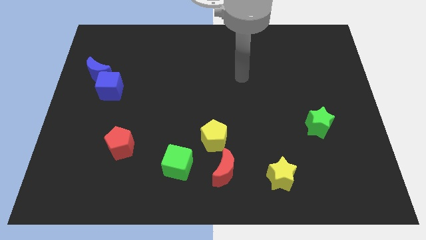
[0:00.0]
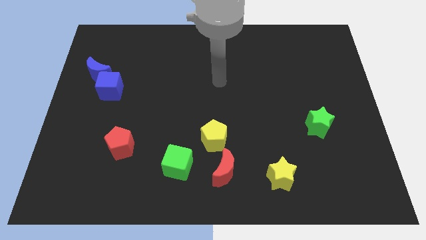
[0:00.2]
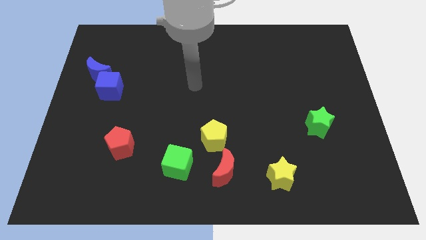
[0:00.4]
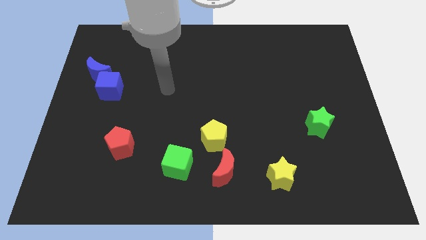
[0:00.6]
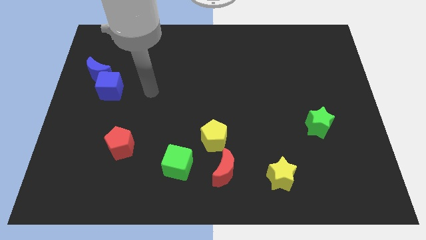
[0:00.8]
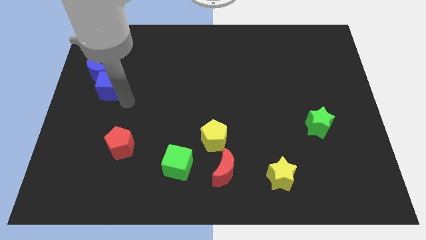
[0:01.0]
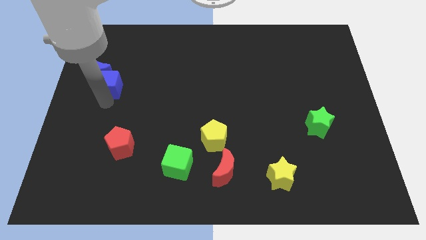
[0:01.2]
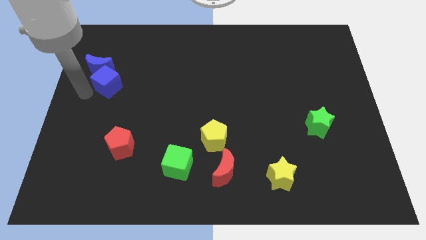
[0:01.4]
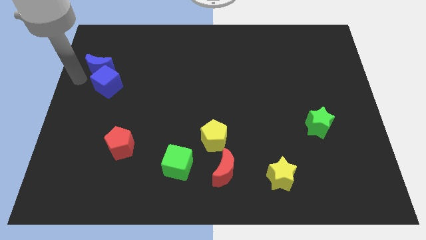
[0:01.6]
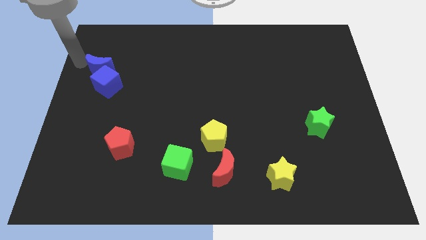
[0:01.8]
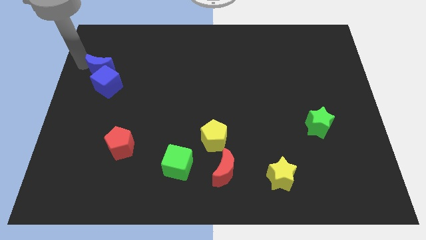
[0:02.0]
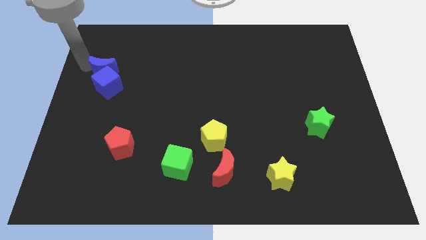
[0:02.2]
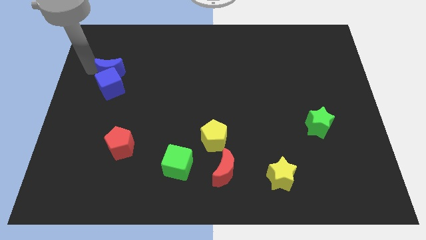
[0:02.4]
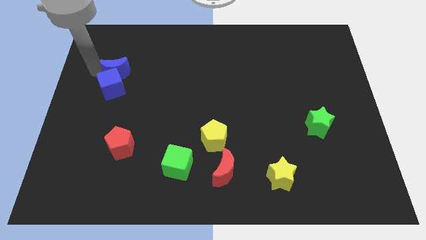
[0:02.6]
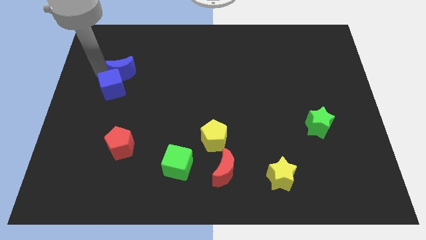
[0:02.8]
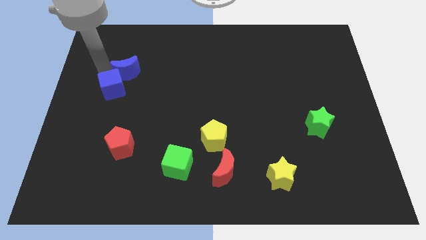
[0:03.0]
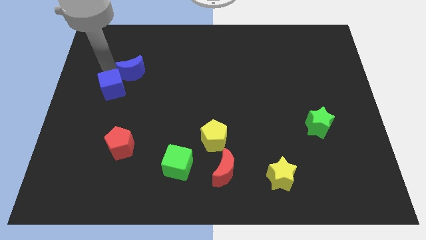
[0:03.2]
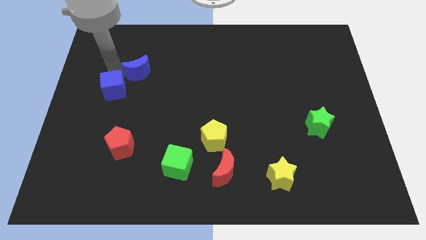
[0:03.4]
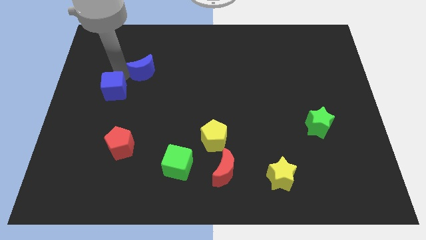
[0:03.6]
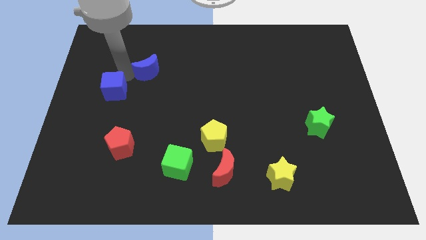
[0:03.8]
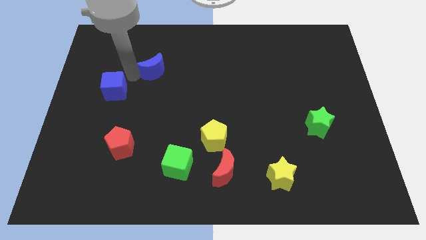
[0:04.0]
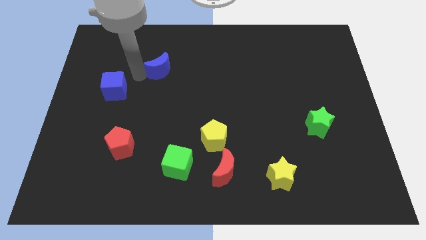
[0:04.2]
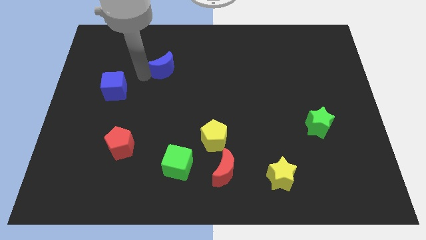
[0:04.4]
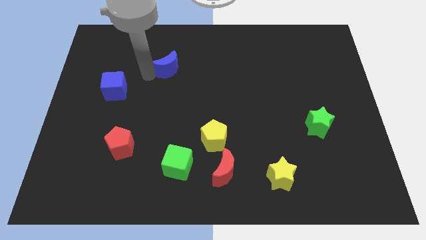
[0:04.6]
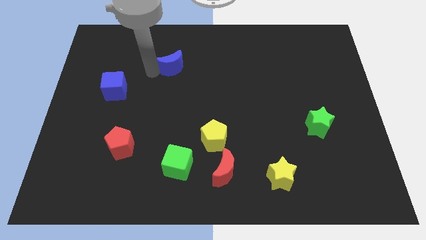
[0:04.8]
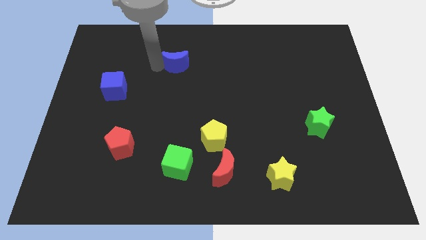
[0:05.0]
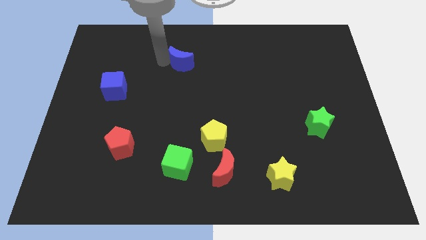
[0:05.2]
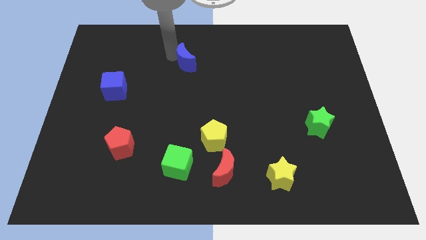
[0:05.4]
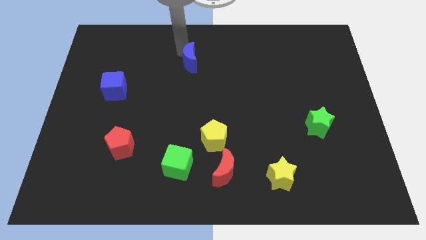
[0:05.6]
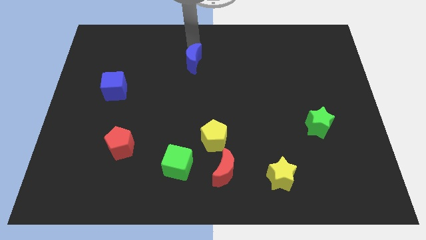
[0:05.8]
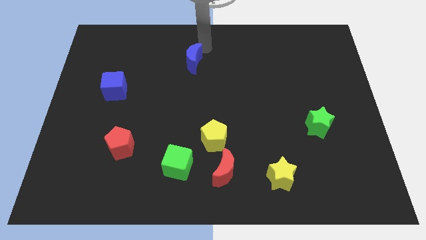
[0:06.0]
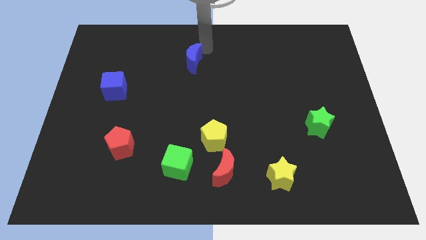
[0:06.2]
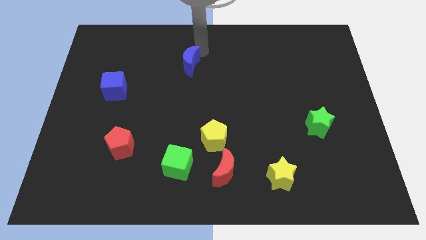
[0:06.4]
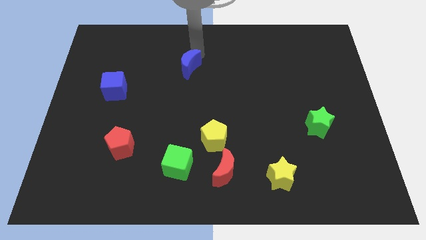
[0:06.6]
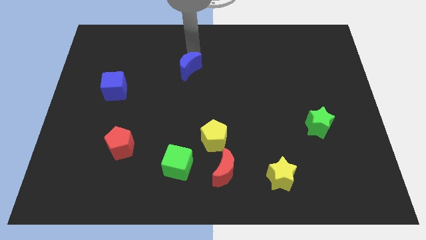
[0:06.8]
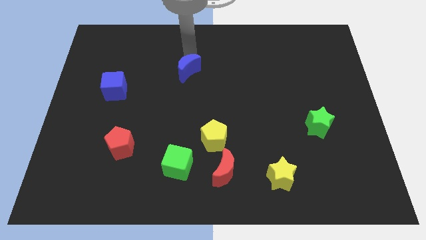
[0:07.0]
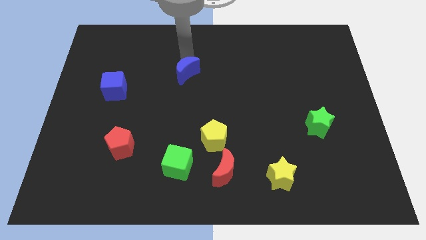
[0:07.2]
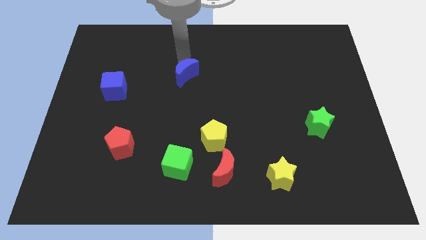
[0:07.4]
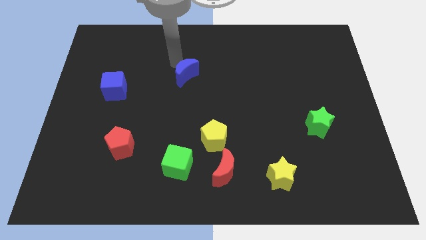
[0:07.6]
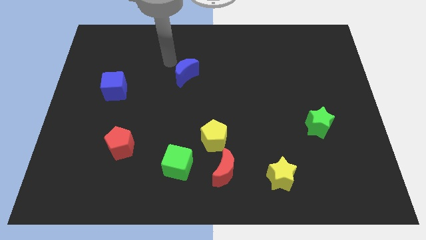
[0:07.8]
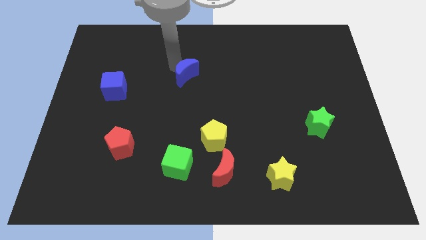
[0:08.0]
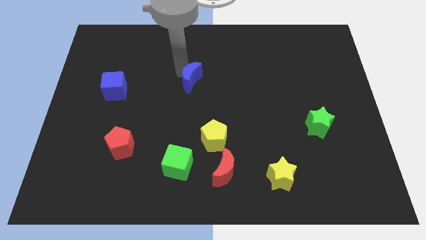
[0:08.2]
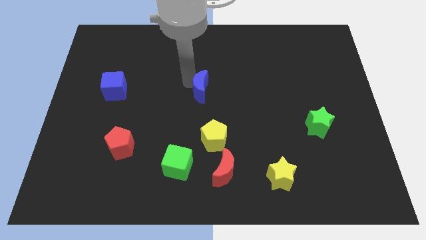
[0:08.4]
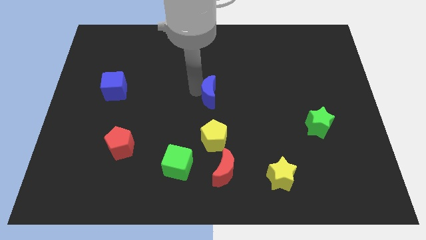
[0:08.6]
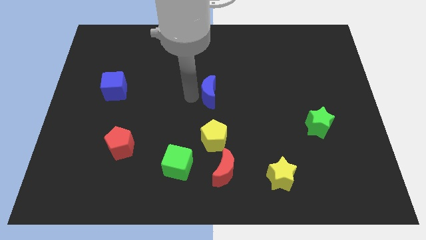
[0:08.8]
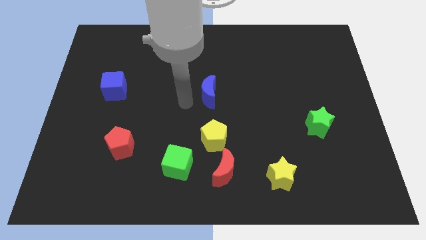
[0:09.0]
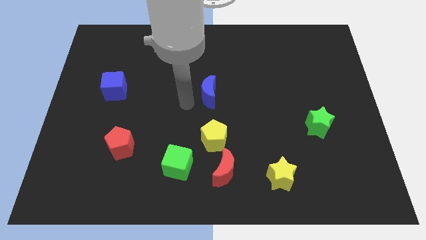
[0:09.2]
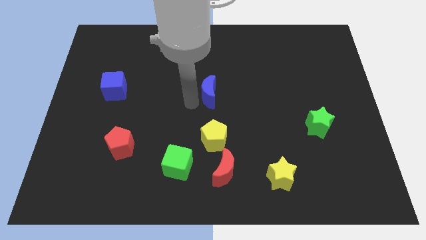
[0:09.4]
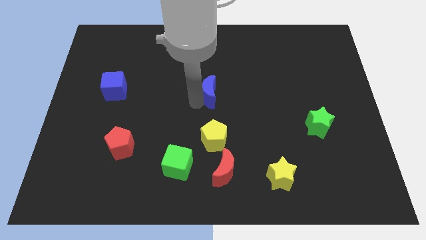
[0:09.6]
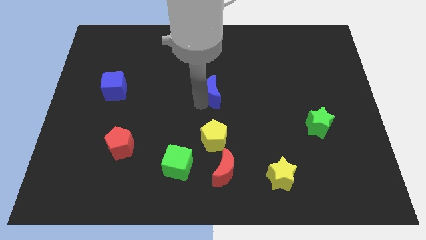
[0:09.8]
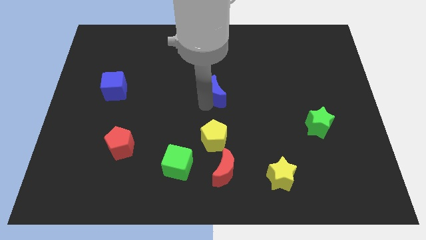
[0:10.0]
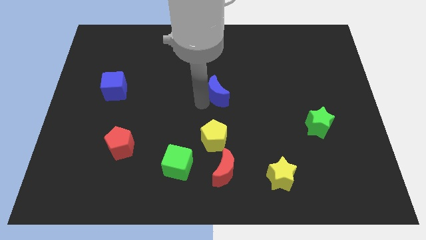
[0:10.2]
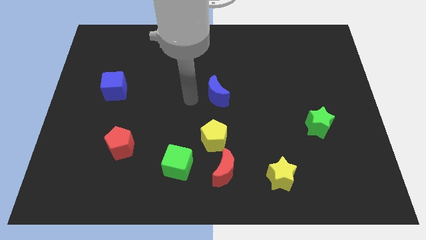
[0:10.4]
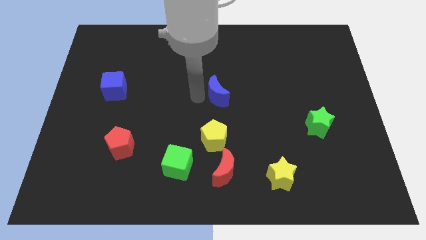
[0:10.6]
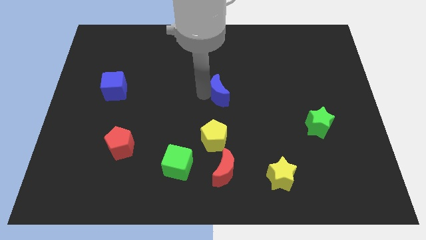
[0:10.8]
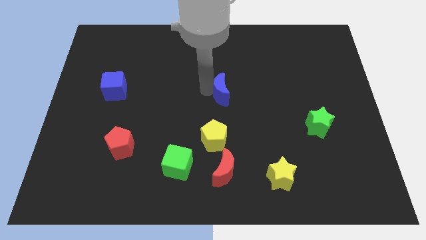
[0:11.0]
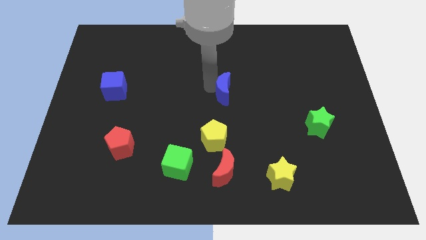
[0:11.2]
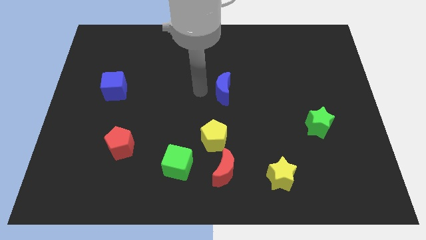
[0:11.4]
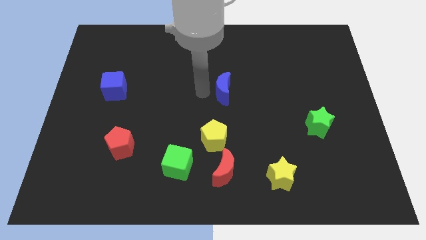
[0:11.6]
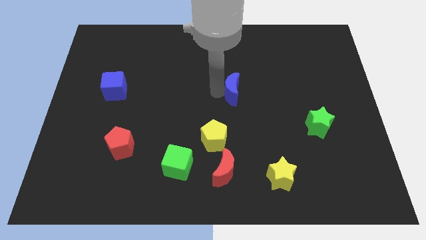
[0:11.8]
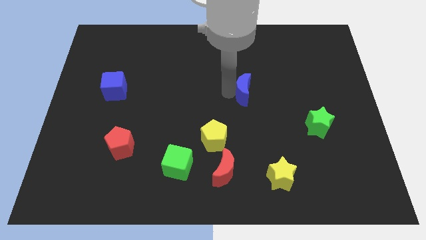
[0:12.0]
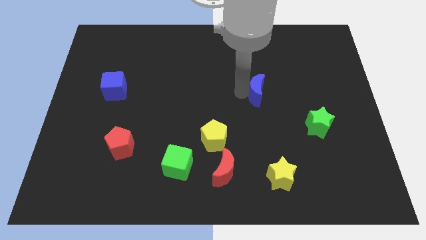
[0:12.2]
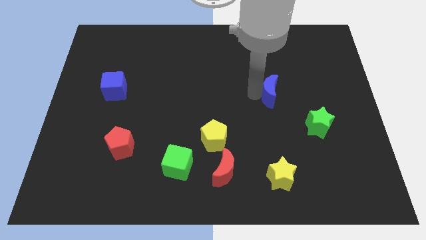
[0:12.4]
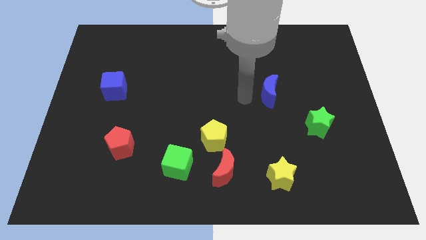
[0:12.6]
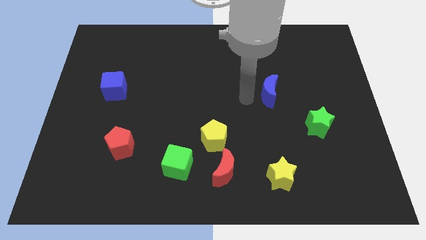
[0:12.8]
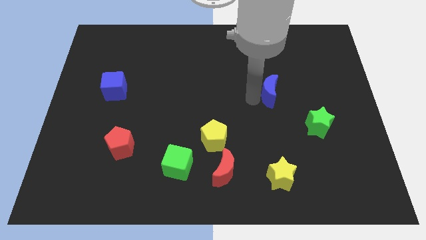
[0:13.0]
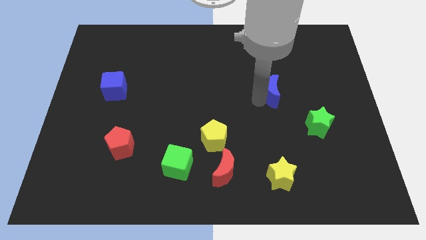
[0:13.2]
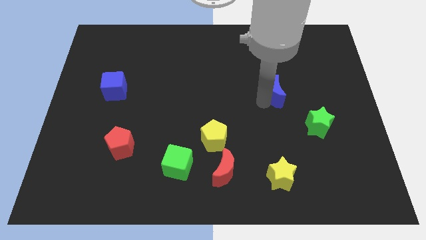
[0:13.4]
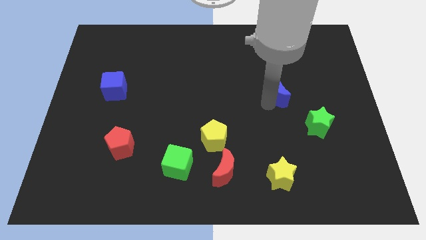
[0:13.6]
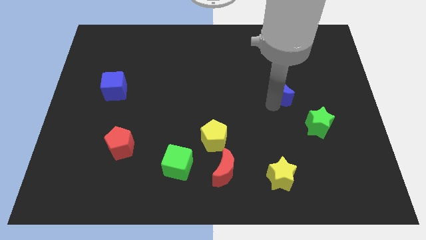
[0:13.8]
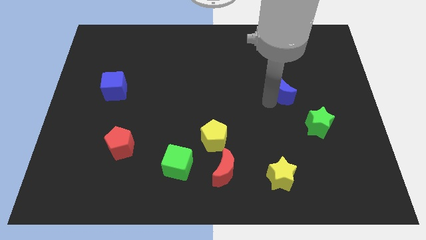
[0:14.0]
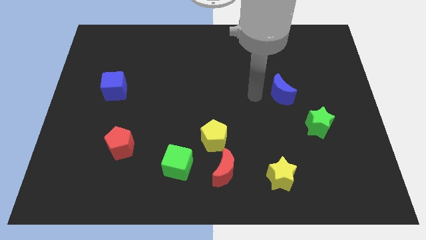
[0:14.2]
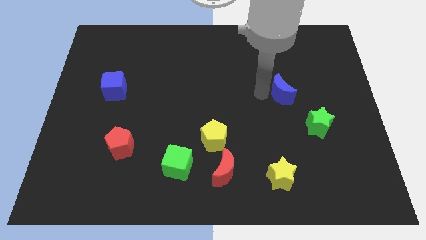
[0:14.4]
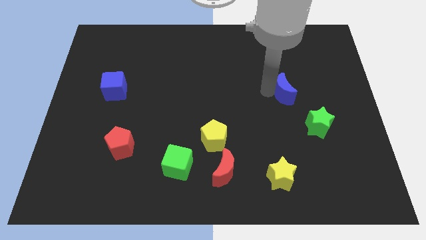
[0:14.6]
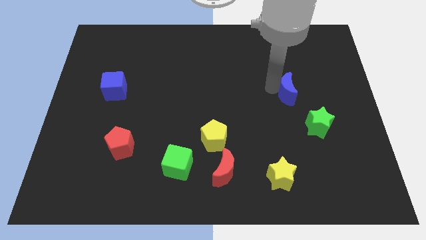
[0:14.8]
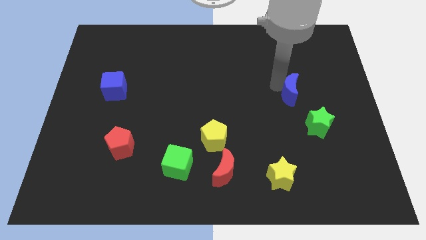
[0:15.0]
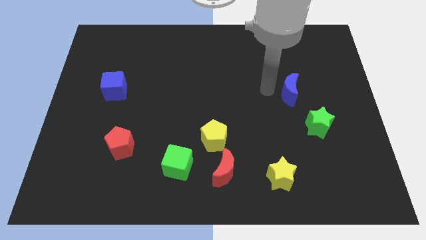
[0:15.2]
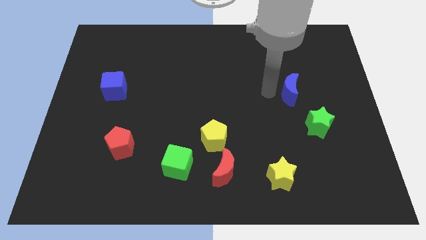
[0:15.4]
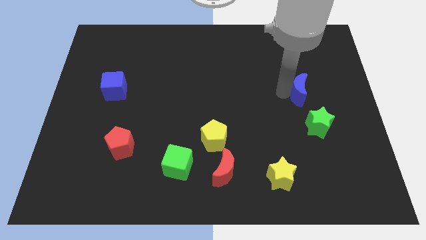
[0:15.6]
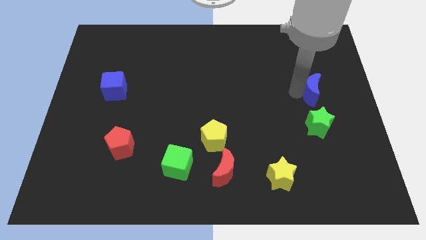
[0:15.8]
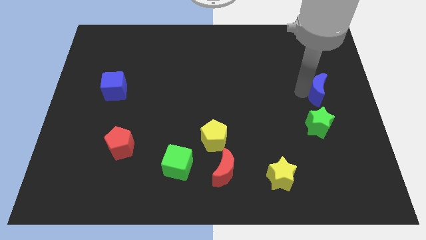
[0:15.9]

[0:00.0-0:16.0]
slide the blue moon to the right side
